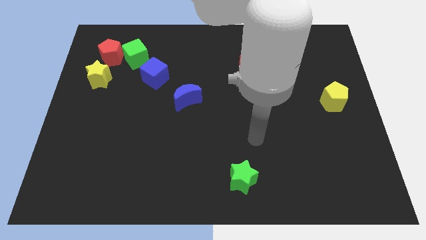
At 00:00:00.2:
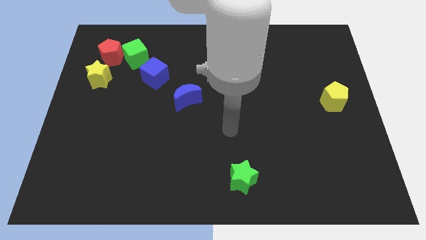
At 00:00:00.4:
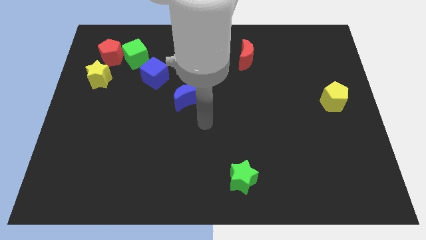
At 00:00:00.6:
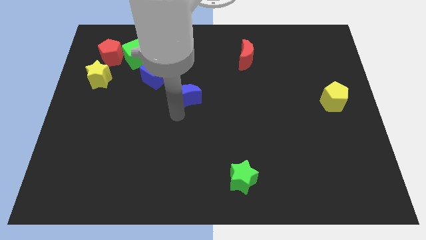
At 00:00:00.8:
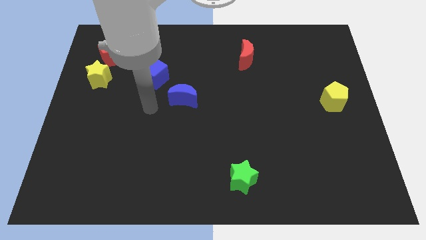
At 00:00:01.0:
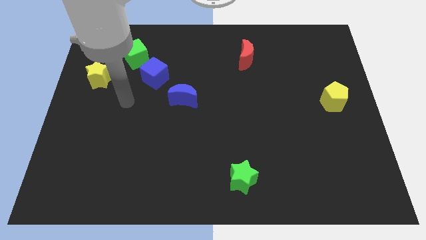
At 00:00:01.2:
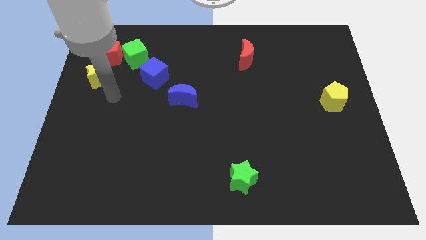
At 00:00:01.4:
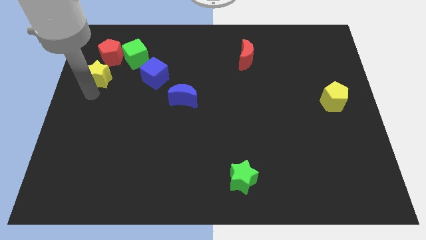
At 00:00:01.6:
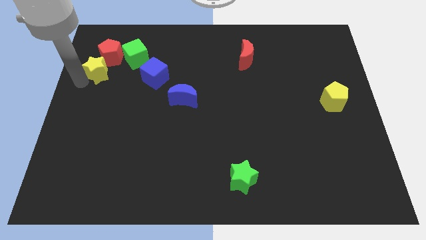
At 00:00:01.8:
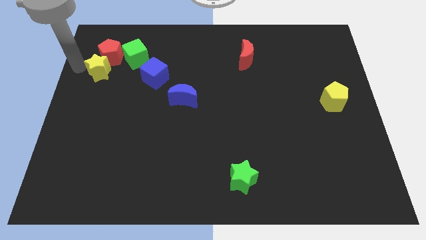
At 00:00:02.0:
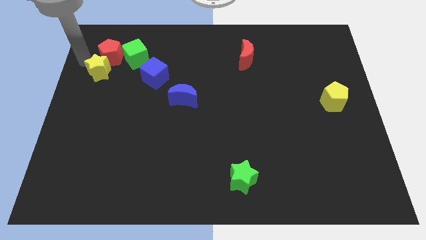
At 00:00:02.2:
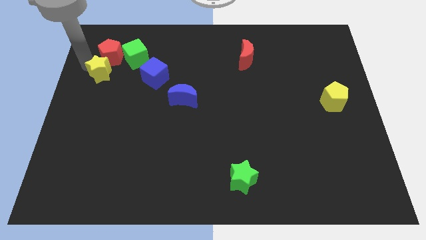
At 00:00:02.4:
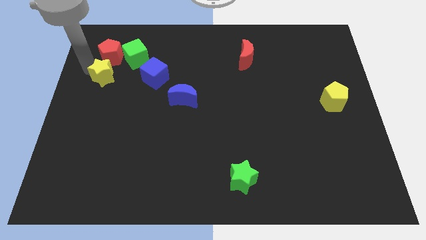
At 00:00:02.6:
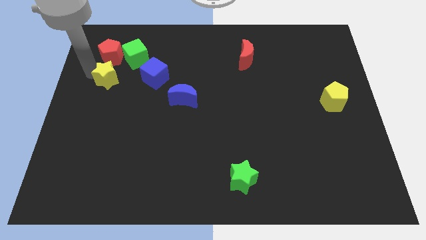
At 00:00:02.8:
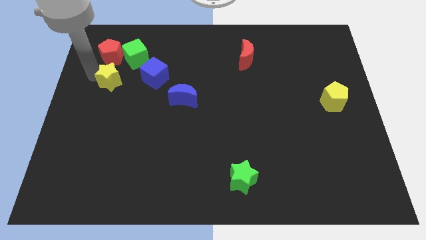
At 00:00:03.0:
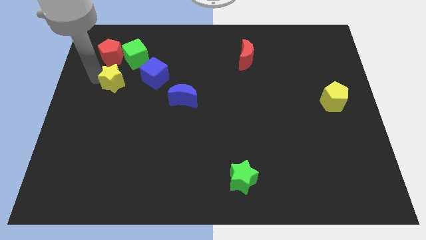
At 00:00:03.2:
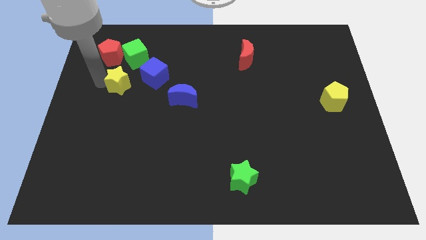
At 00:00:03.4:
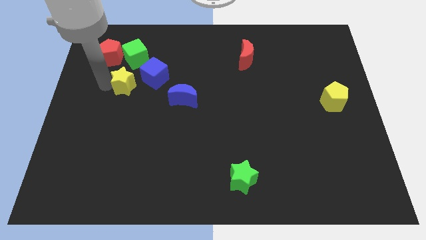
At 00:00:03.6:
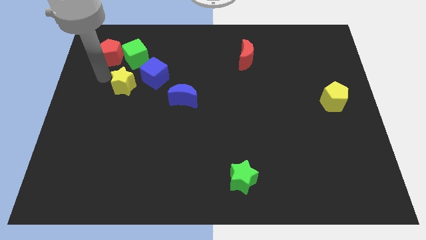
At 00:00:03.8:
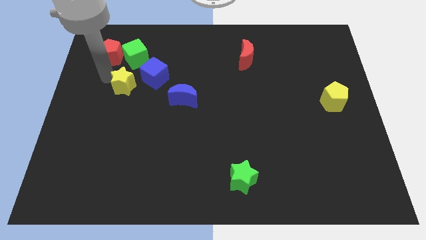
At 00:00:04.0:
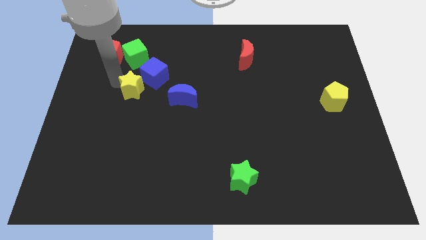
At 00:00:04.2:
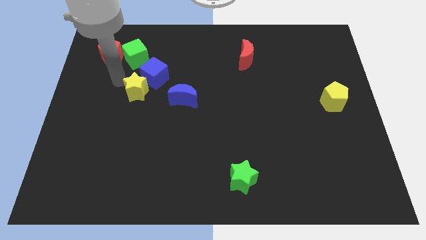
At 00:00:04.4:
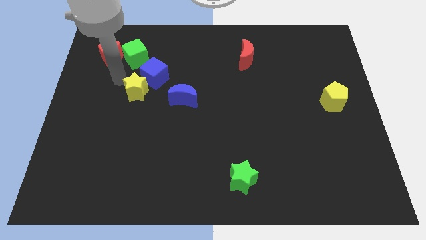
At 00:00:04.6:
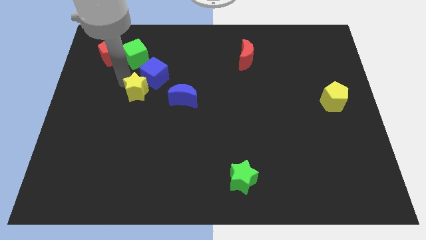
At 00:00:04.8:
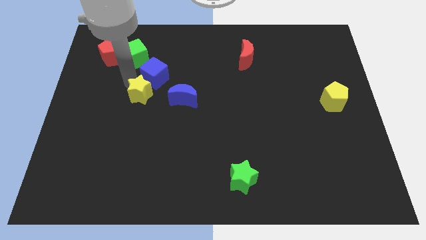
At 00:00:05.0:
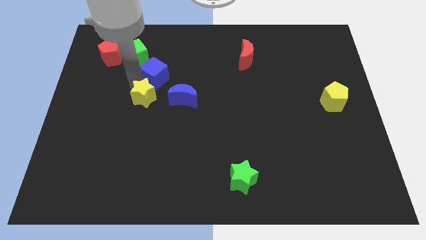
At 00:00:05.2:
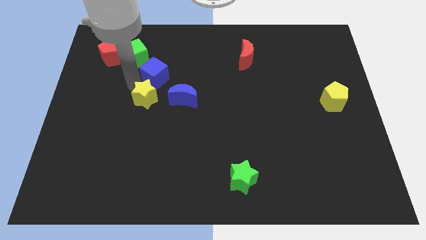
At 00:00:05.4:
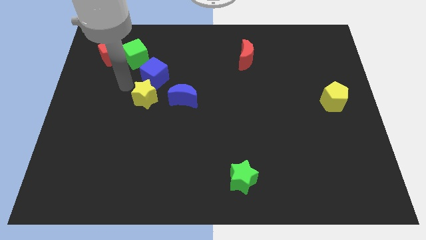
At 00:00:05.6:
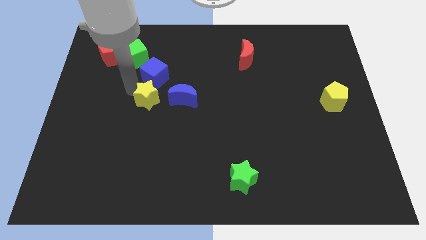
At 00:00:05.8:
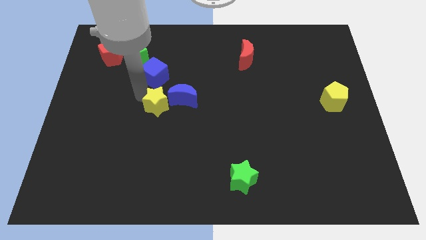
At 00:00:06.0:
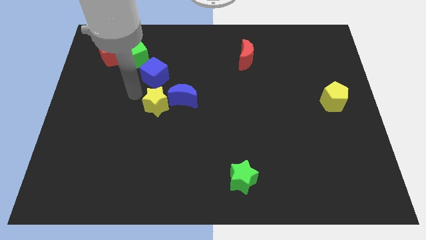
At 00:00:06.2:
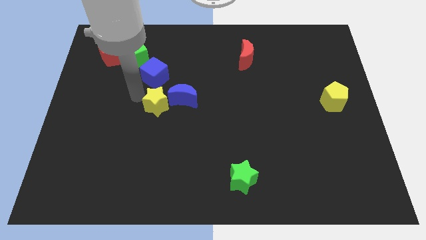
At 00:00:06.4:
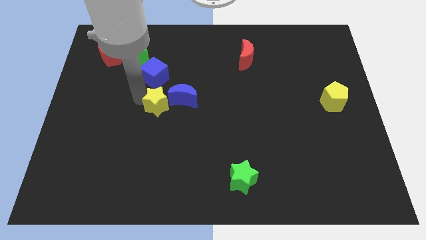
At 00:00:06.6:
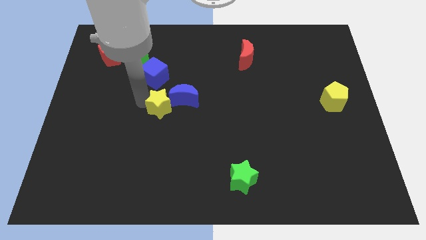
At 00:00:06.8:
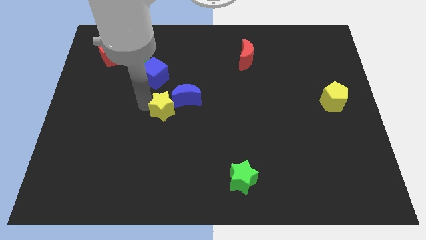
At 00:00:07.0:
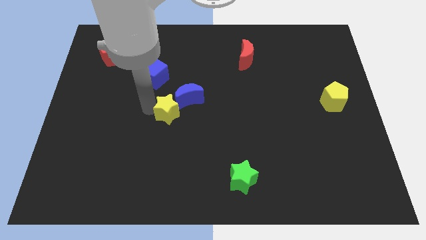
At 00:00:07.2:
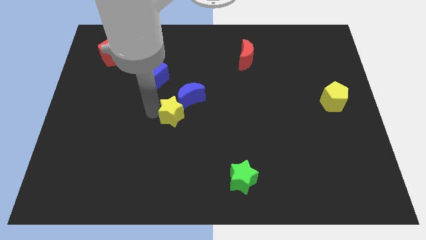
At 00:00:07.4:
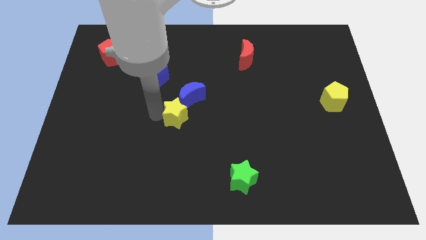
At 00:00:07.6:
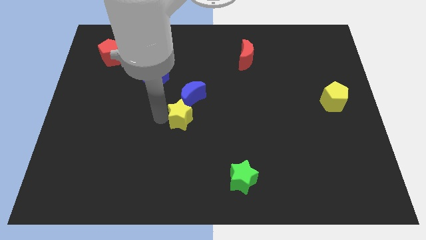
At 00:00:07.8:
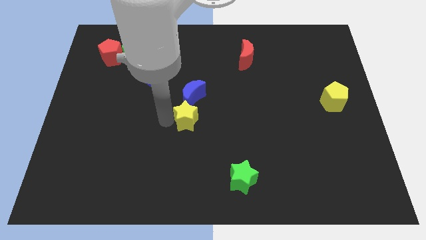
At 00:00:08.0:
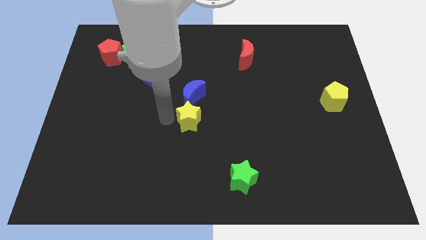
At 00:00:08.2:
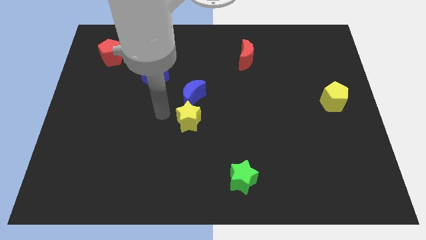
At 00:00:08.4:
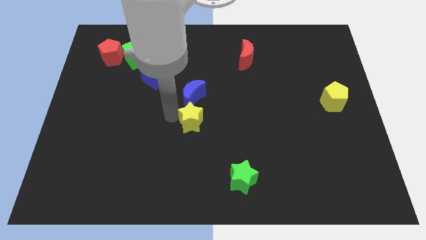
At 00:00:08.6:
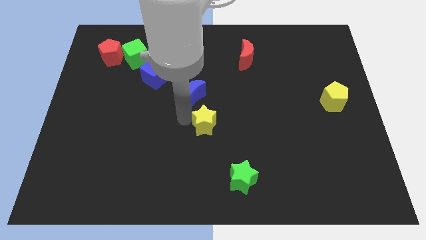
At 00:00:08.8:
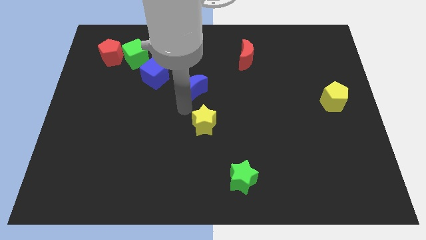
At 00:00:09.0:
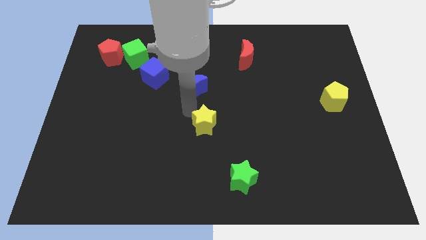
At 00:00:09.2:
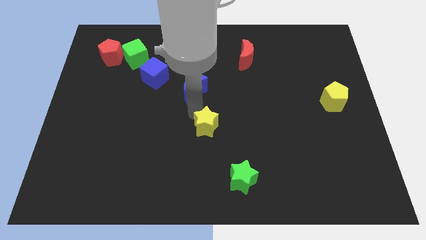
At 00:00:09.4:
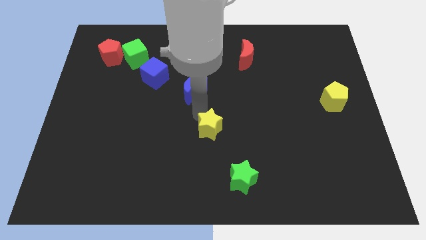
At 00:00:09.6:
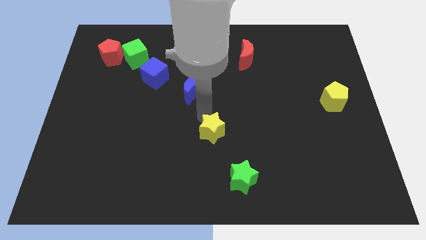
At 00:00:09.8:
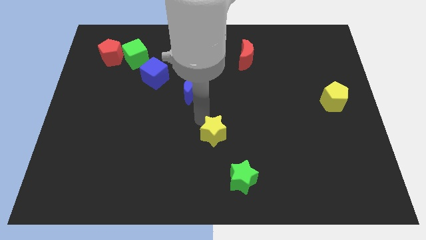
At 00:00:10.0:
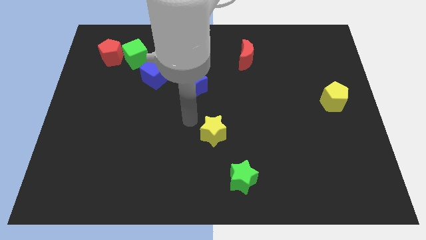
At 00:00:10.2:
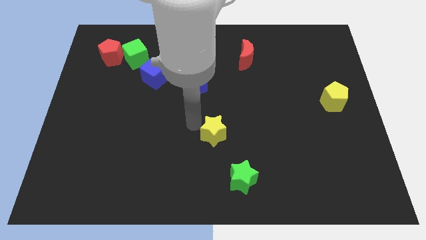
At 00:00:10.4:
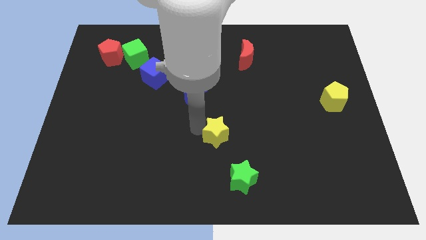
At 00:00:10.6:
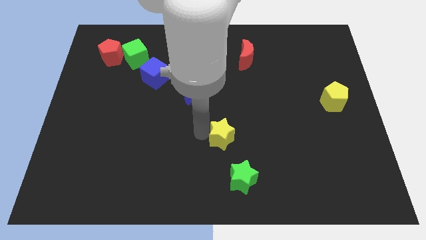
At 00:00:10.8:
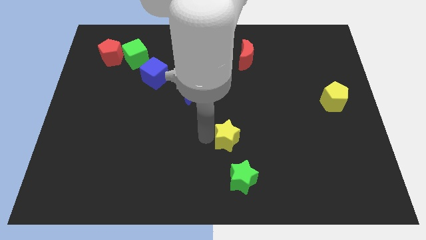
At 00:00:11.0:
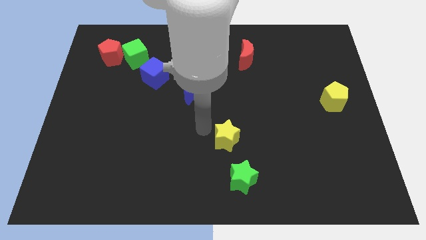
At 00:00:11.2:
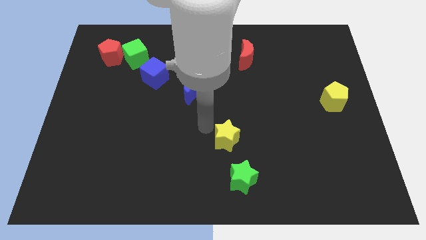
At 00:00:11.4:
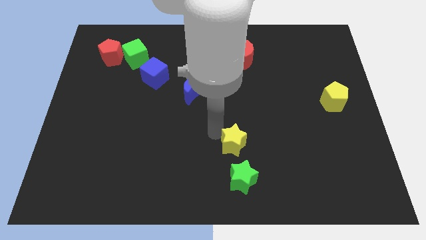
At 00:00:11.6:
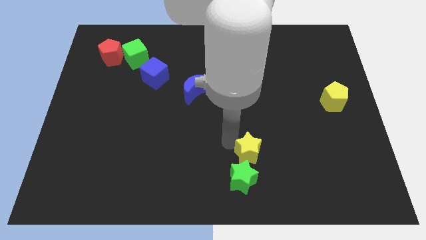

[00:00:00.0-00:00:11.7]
move the yellow star diagonally up and to the right of the green star
